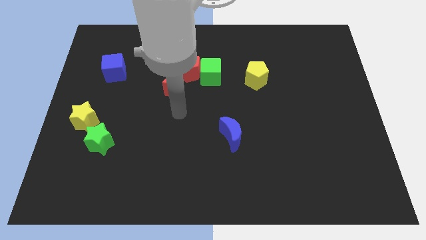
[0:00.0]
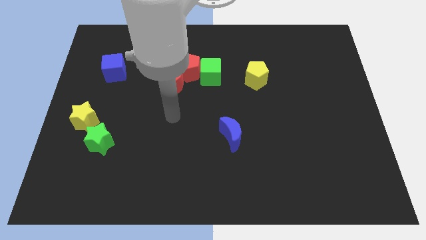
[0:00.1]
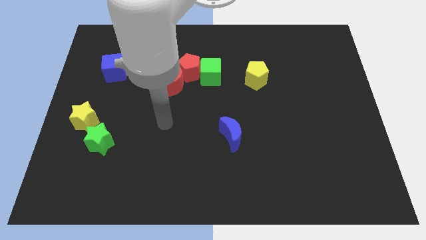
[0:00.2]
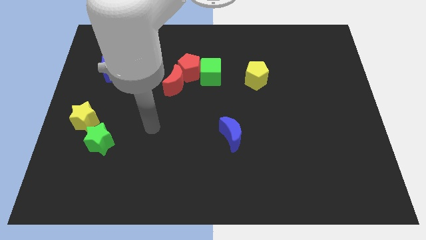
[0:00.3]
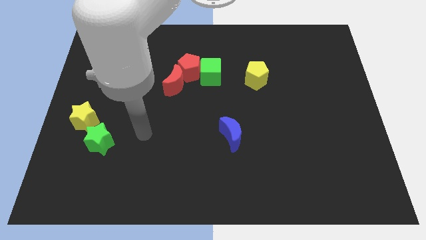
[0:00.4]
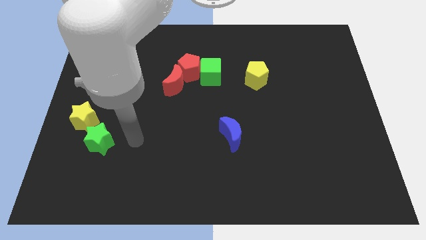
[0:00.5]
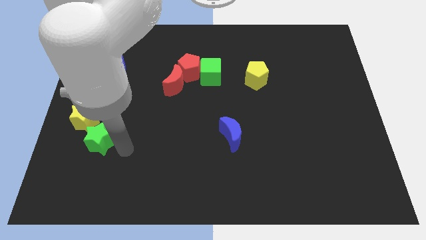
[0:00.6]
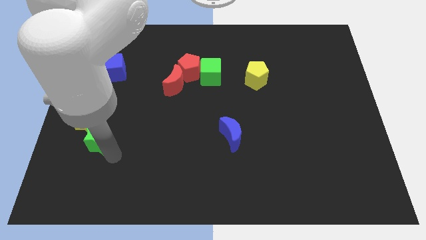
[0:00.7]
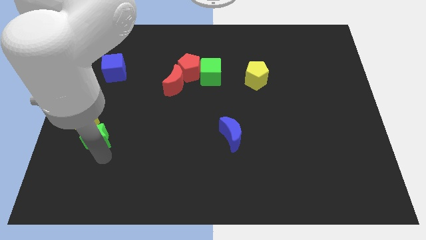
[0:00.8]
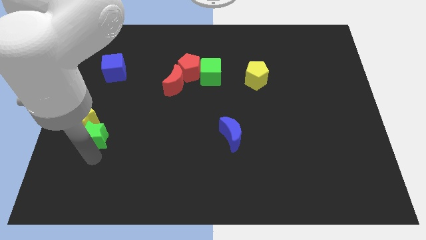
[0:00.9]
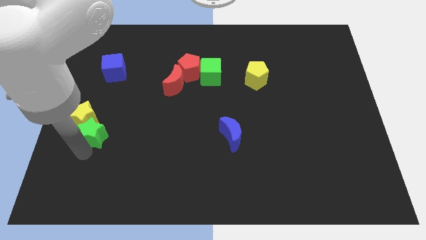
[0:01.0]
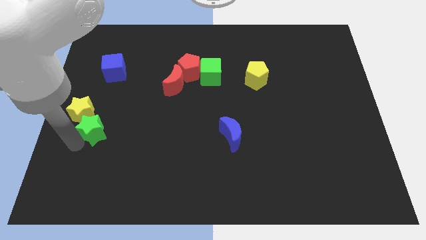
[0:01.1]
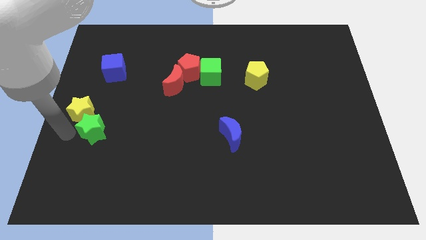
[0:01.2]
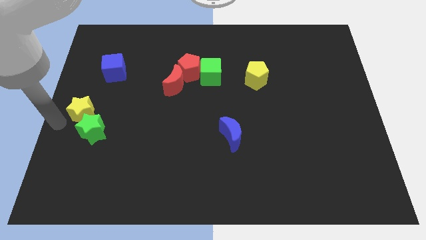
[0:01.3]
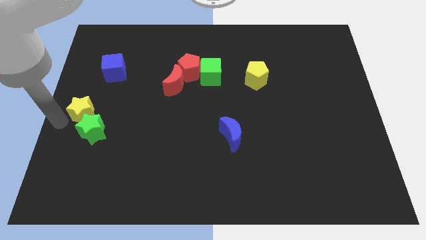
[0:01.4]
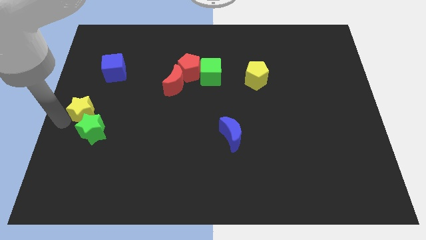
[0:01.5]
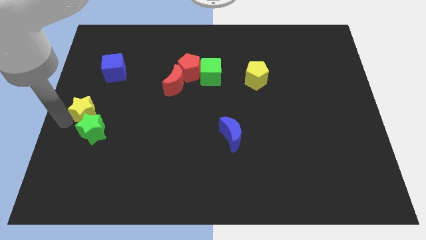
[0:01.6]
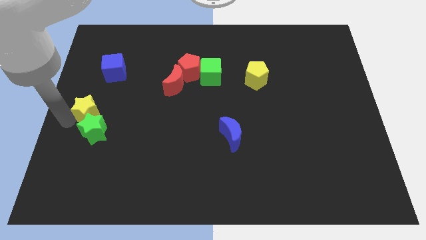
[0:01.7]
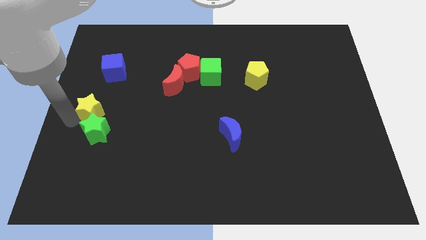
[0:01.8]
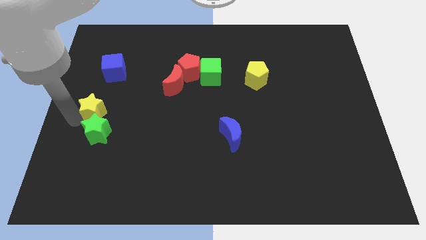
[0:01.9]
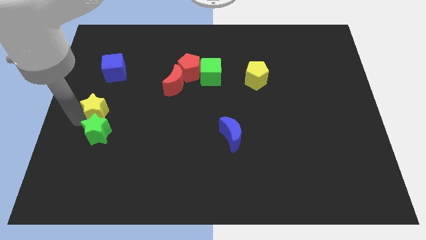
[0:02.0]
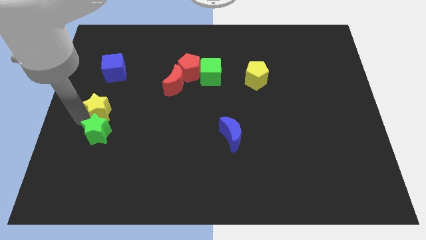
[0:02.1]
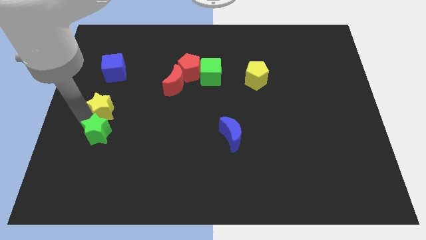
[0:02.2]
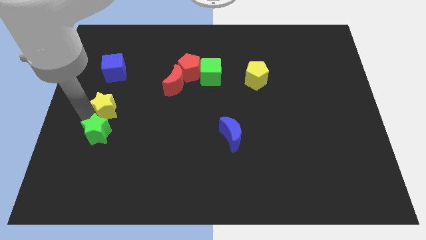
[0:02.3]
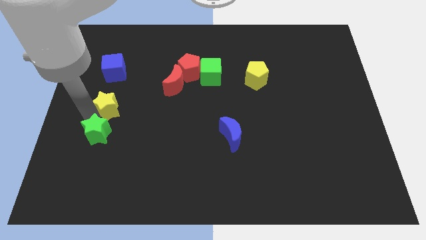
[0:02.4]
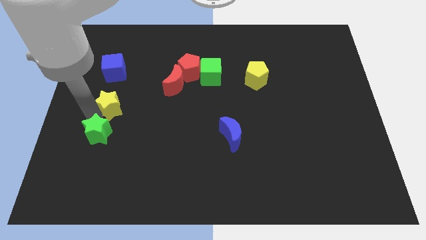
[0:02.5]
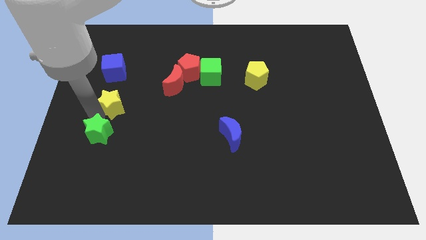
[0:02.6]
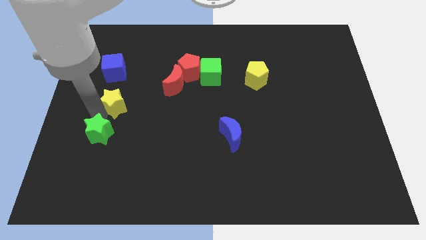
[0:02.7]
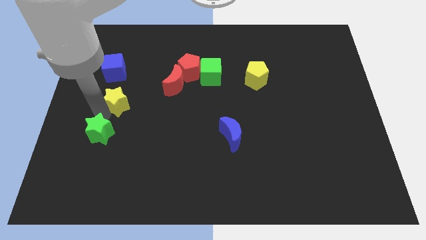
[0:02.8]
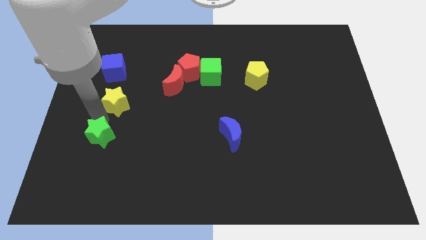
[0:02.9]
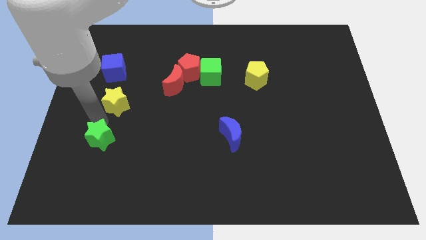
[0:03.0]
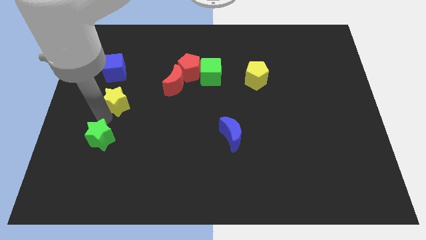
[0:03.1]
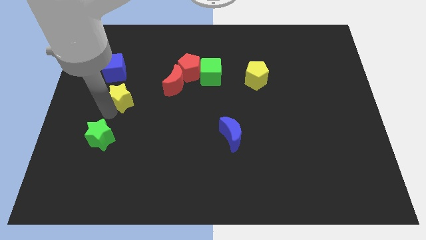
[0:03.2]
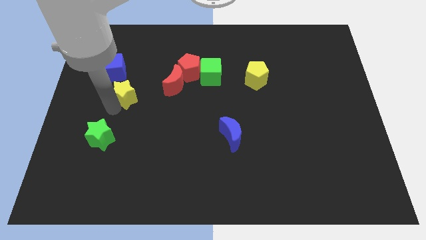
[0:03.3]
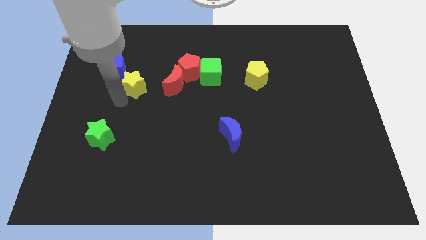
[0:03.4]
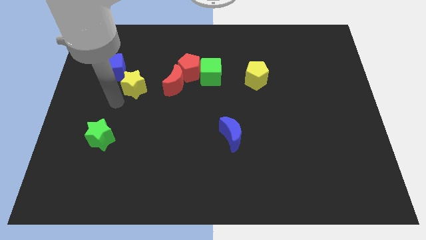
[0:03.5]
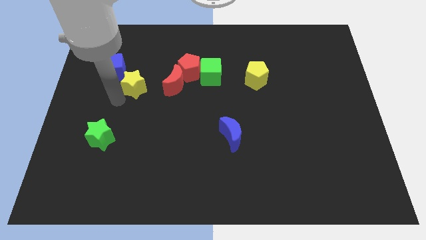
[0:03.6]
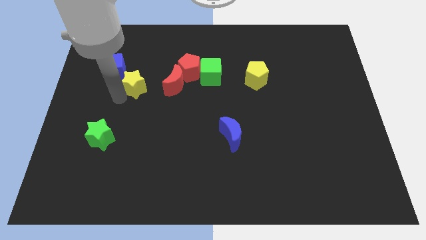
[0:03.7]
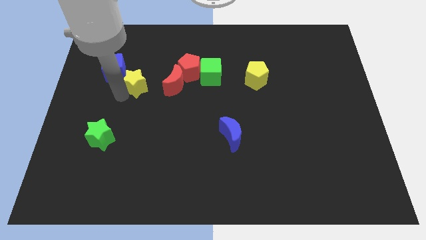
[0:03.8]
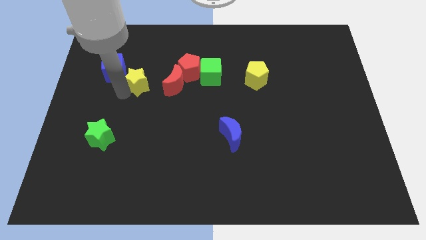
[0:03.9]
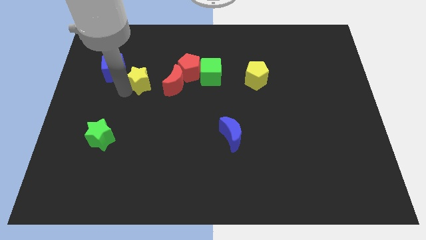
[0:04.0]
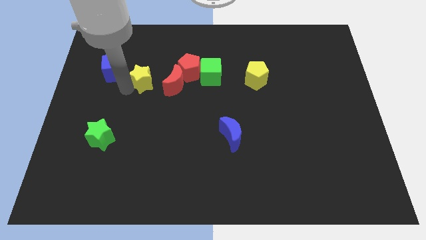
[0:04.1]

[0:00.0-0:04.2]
move the yellow star to the top left side of the red moon

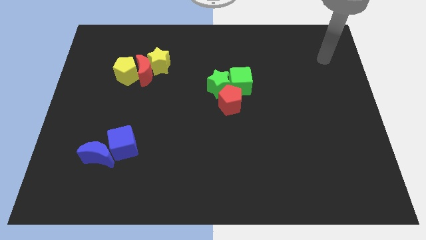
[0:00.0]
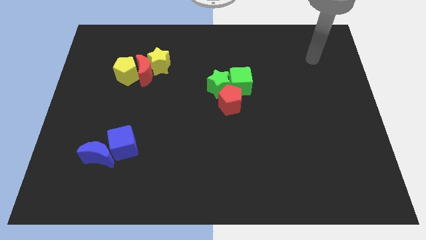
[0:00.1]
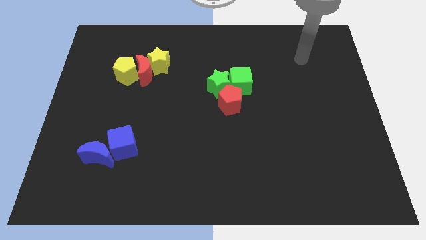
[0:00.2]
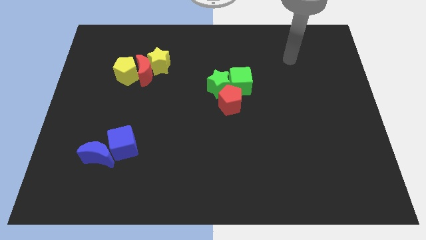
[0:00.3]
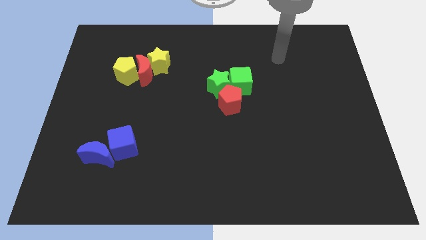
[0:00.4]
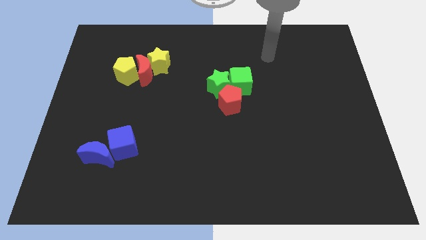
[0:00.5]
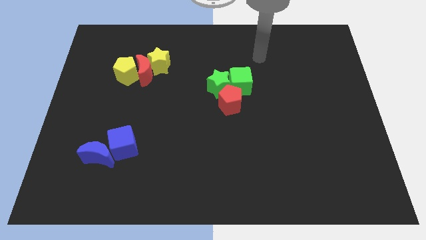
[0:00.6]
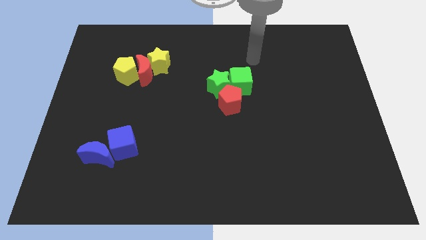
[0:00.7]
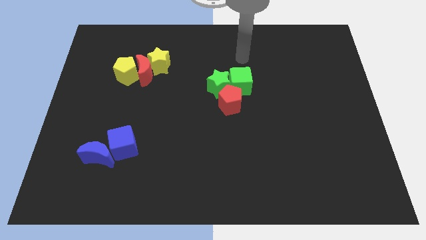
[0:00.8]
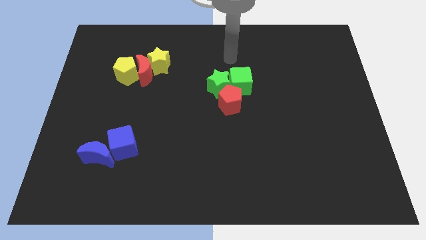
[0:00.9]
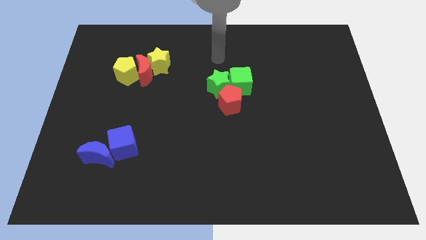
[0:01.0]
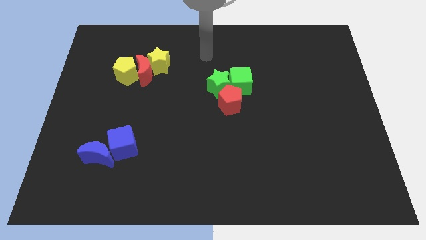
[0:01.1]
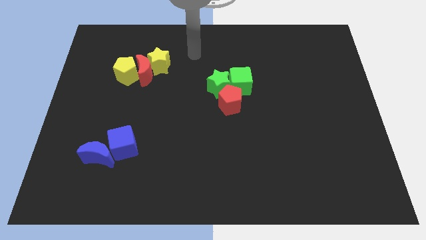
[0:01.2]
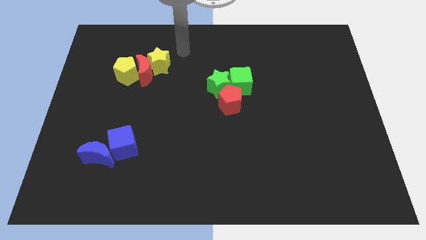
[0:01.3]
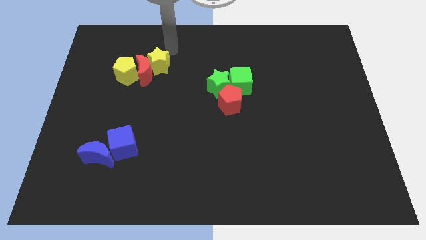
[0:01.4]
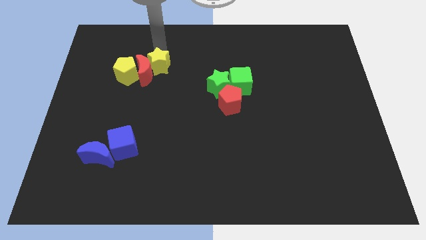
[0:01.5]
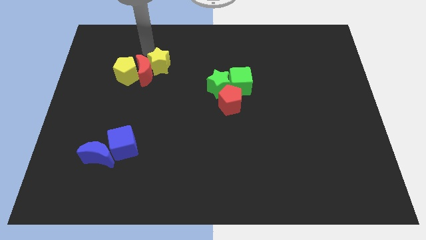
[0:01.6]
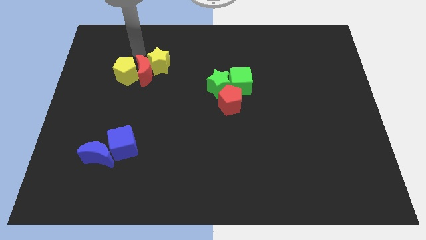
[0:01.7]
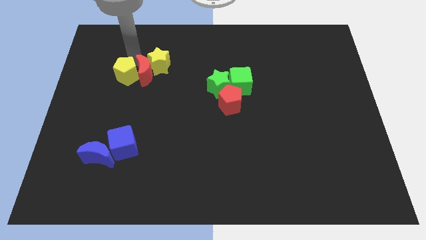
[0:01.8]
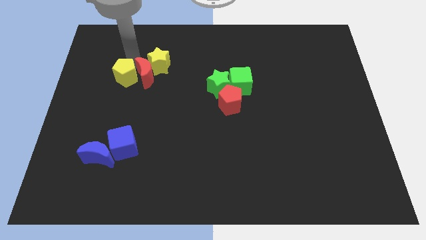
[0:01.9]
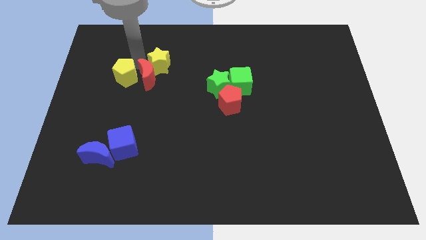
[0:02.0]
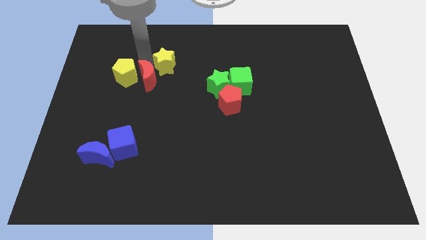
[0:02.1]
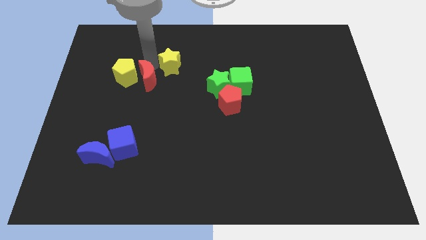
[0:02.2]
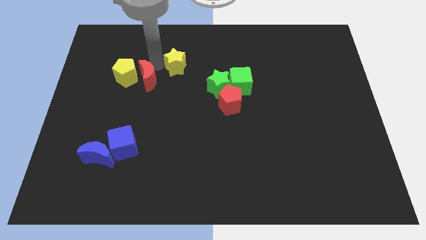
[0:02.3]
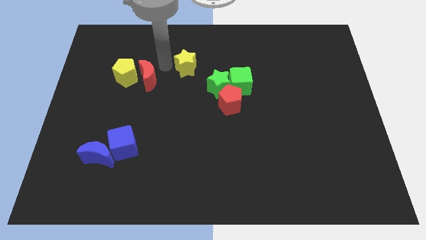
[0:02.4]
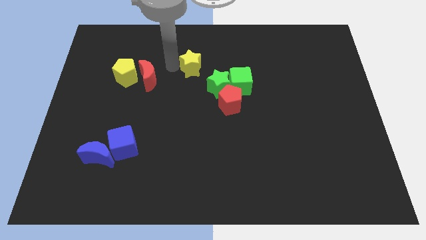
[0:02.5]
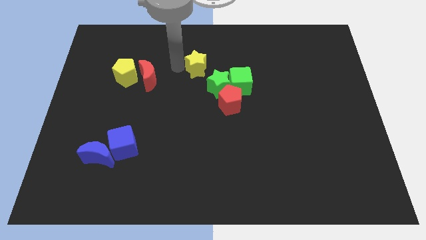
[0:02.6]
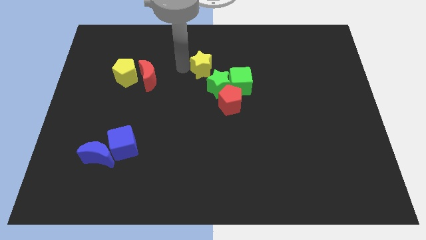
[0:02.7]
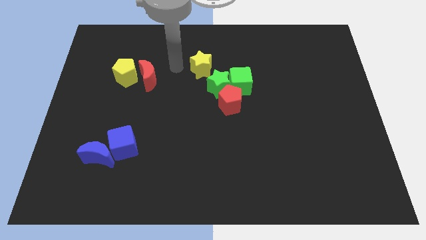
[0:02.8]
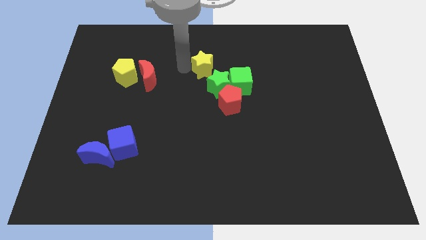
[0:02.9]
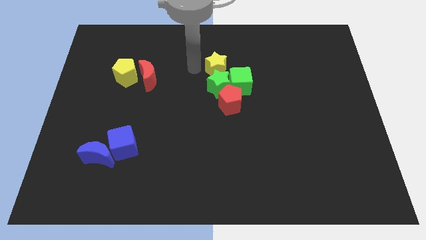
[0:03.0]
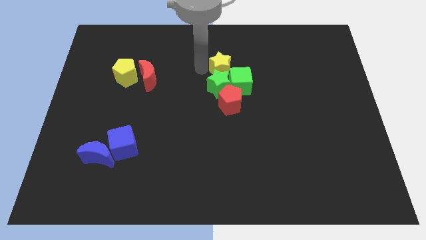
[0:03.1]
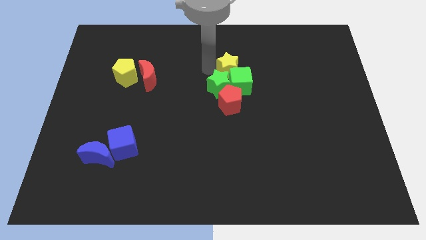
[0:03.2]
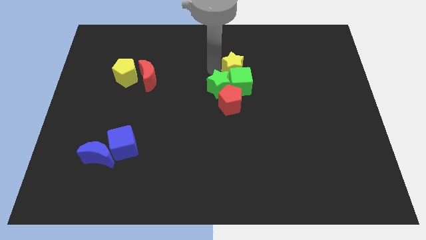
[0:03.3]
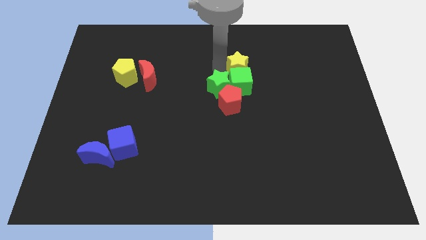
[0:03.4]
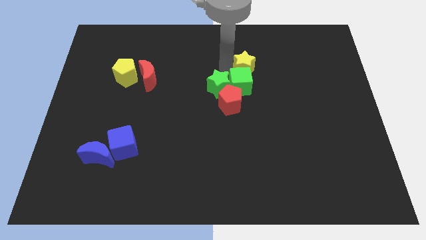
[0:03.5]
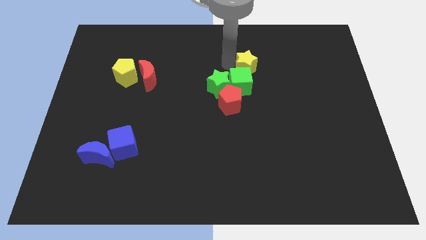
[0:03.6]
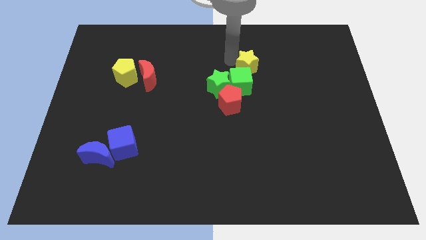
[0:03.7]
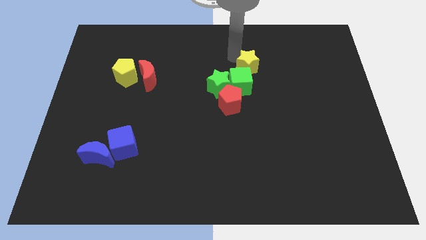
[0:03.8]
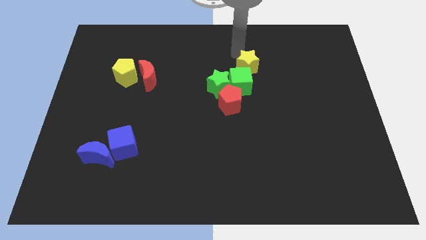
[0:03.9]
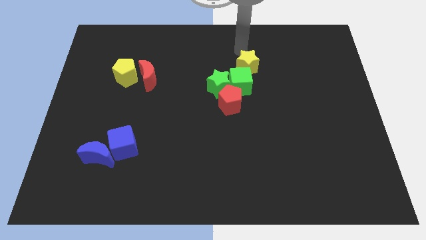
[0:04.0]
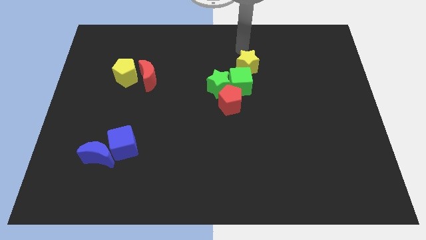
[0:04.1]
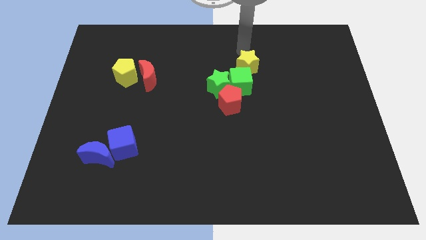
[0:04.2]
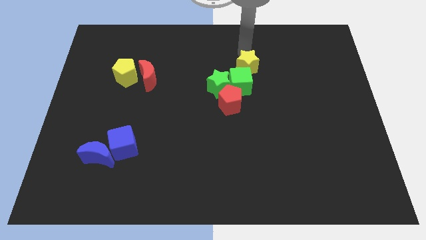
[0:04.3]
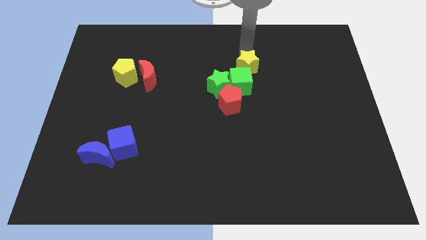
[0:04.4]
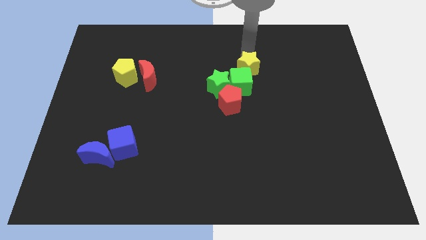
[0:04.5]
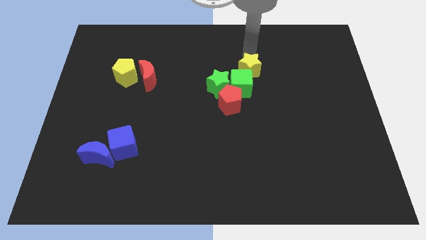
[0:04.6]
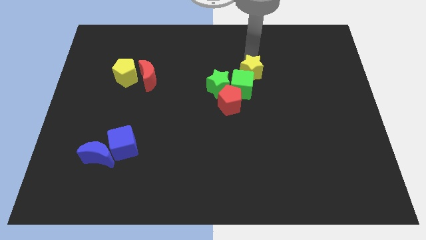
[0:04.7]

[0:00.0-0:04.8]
slide the yellow star to the top right side of the red pentagon
